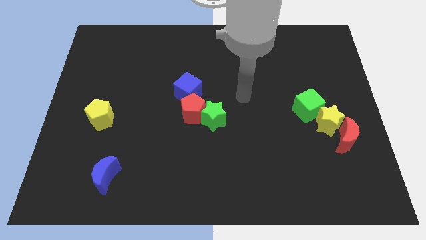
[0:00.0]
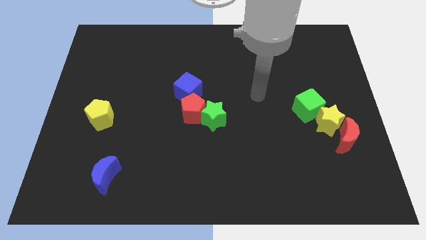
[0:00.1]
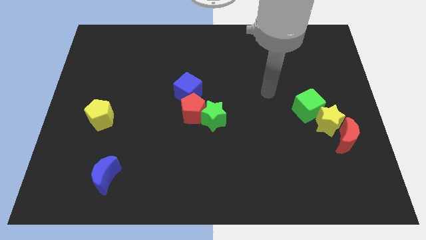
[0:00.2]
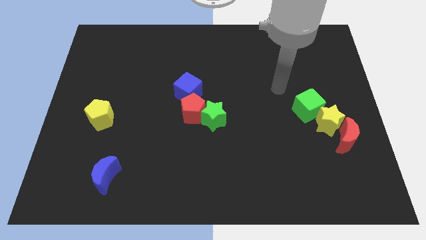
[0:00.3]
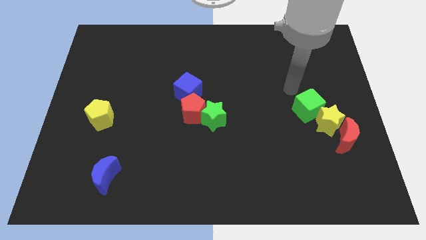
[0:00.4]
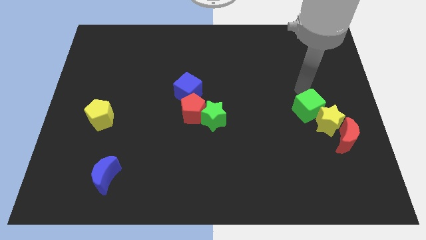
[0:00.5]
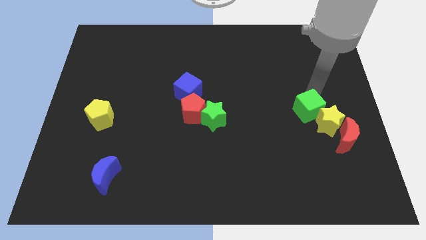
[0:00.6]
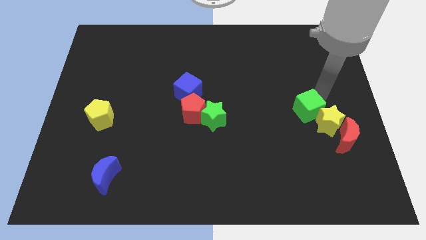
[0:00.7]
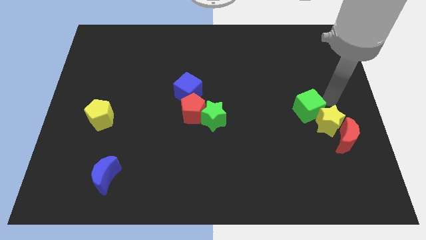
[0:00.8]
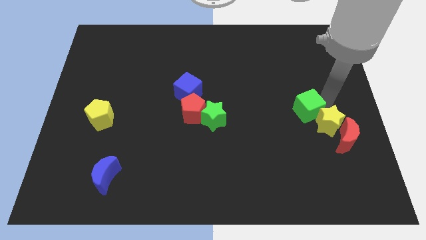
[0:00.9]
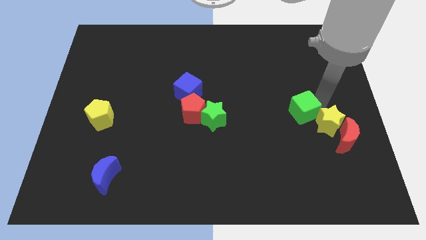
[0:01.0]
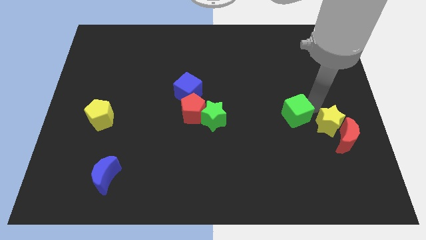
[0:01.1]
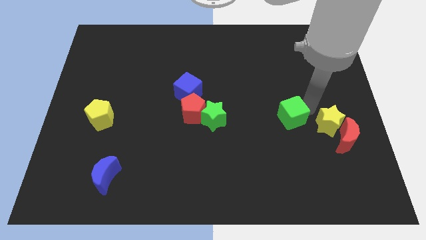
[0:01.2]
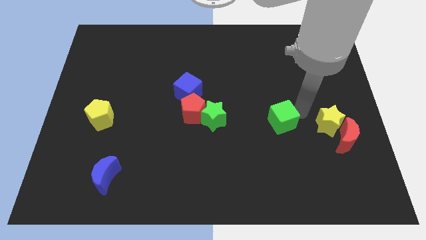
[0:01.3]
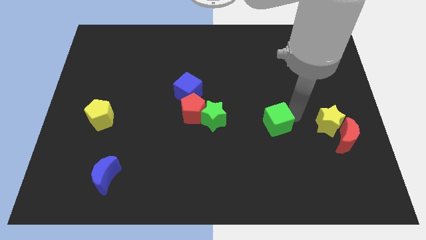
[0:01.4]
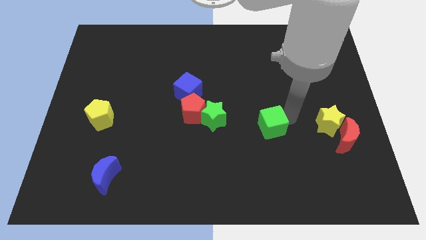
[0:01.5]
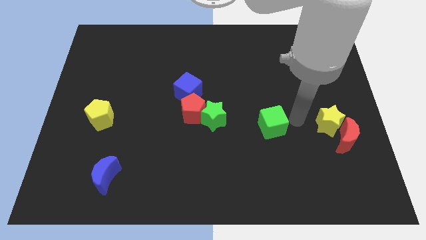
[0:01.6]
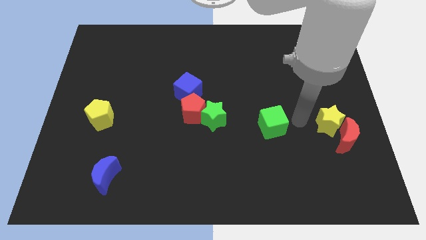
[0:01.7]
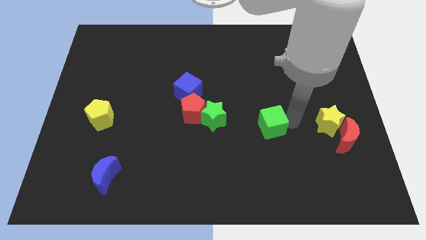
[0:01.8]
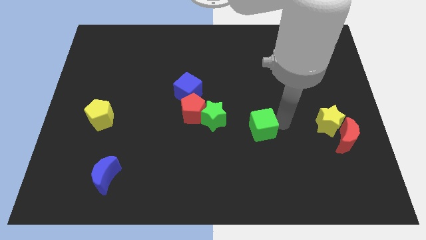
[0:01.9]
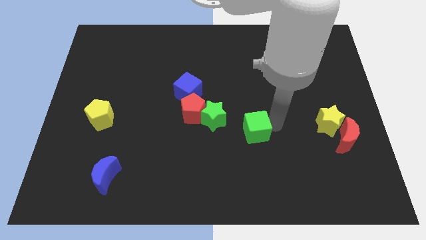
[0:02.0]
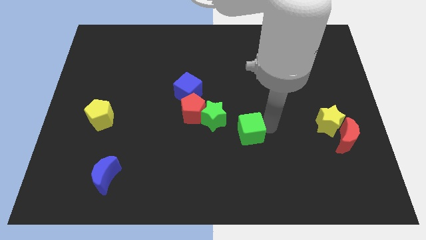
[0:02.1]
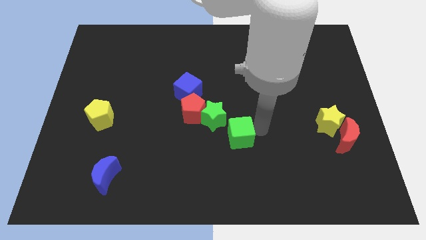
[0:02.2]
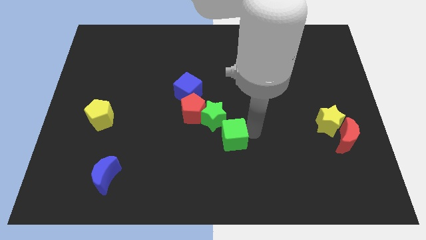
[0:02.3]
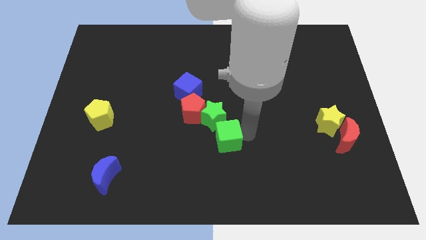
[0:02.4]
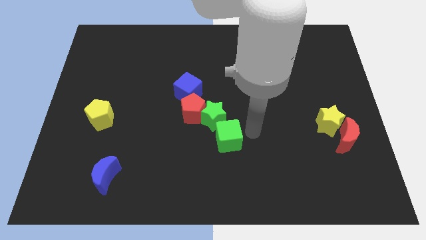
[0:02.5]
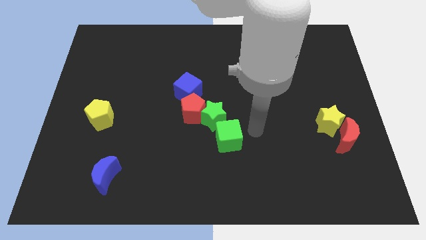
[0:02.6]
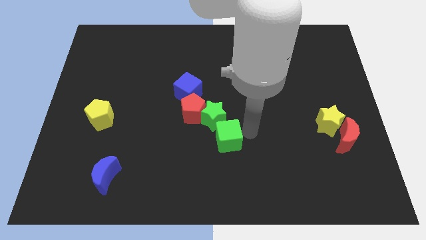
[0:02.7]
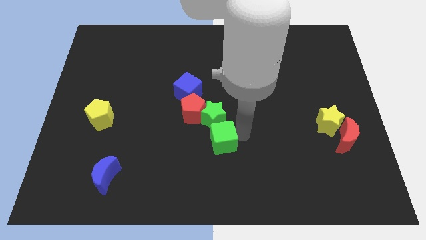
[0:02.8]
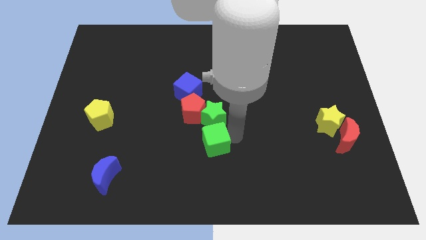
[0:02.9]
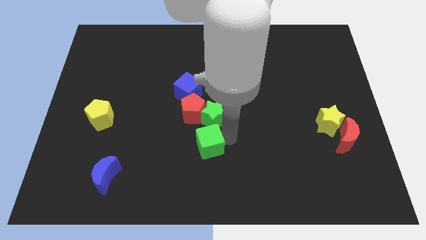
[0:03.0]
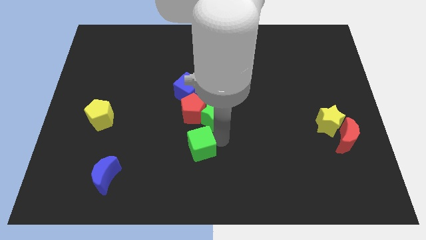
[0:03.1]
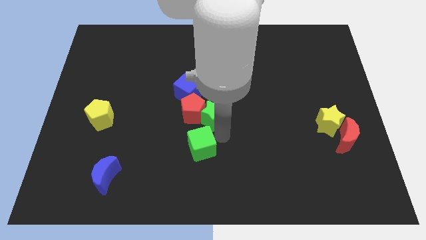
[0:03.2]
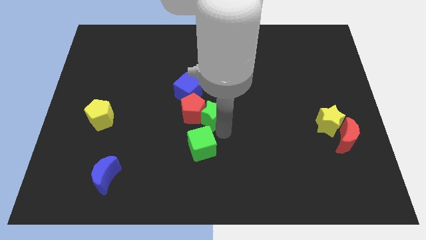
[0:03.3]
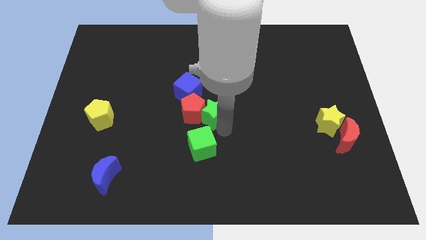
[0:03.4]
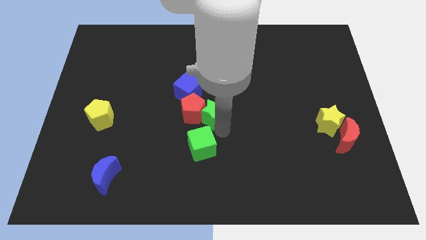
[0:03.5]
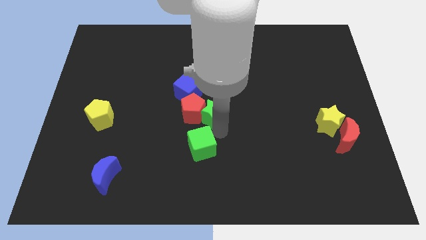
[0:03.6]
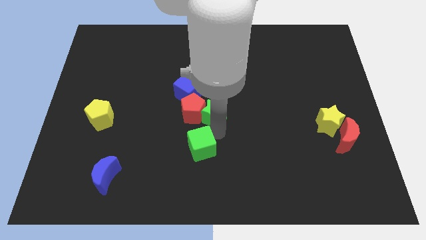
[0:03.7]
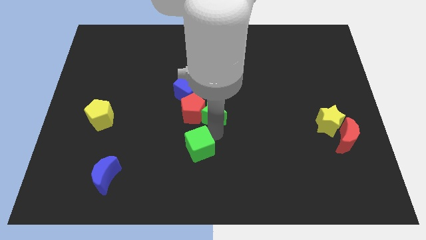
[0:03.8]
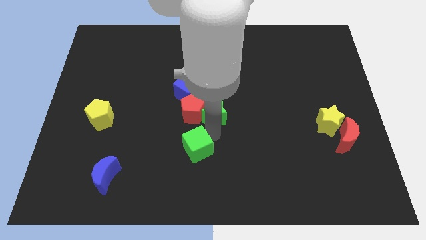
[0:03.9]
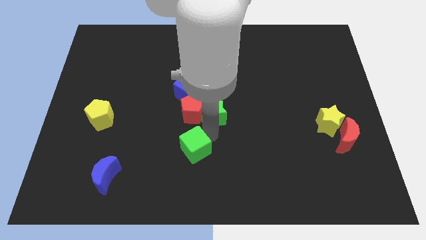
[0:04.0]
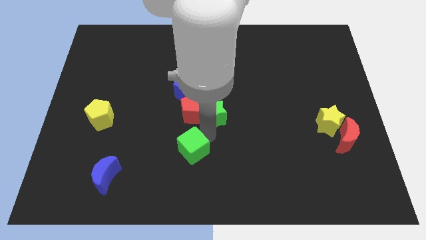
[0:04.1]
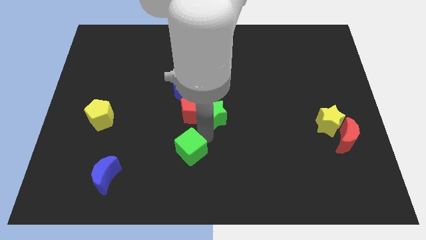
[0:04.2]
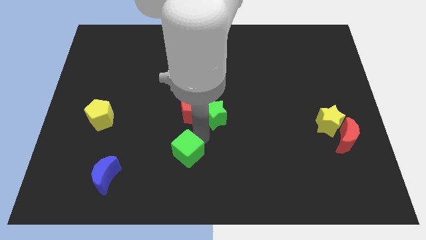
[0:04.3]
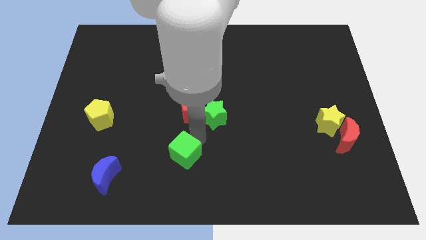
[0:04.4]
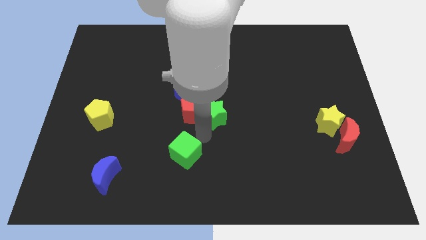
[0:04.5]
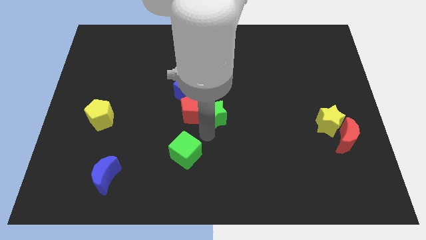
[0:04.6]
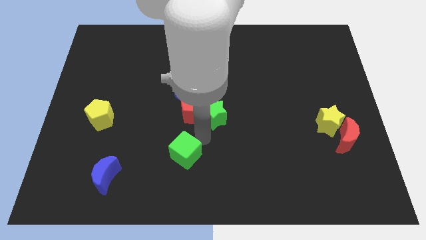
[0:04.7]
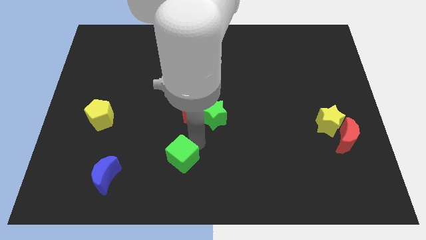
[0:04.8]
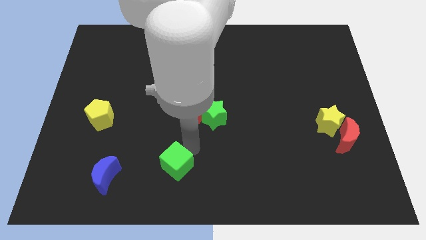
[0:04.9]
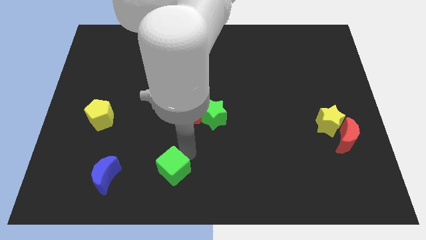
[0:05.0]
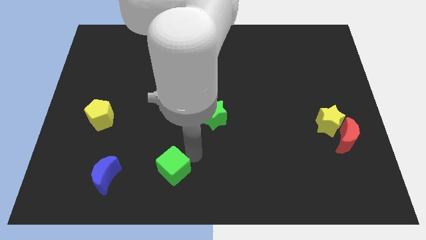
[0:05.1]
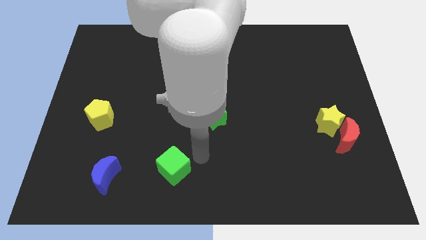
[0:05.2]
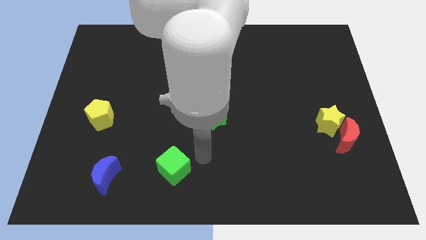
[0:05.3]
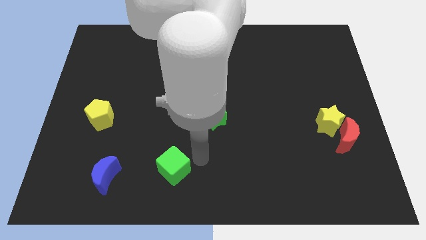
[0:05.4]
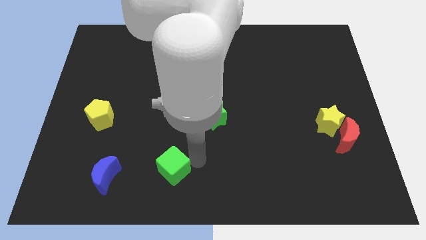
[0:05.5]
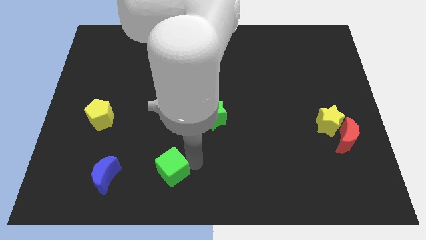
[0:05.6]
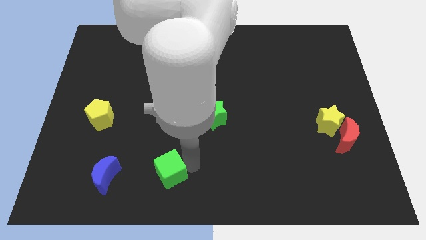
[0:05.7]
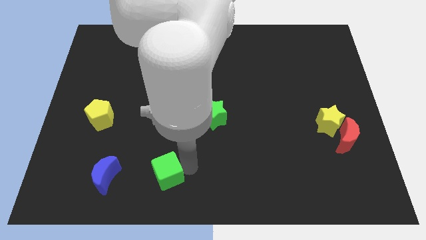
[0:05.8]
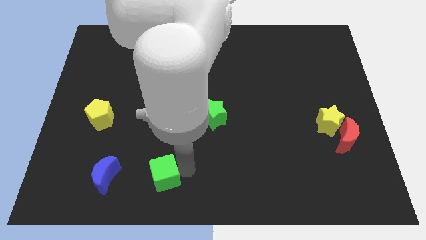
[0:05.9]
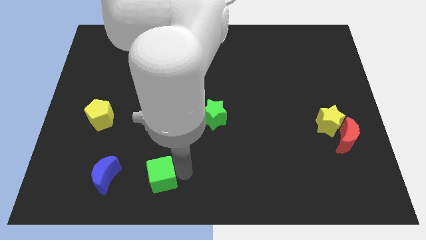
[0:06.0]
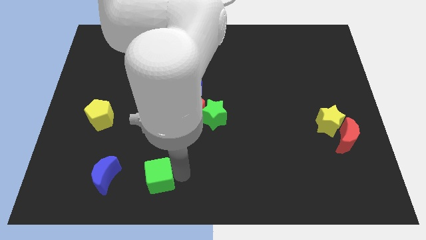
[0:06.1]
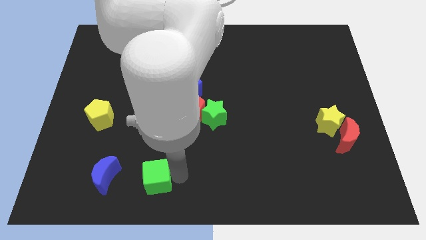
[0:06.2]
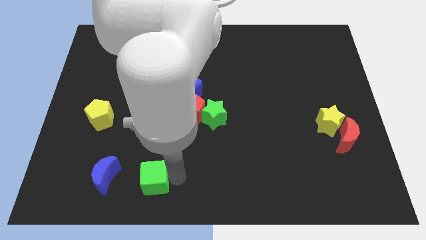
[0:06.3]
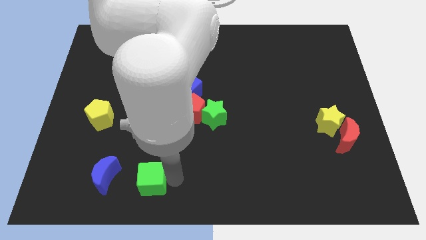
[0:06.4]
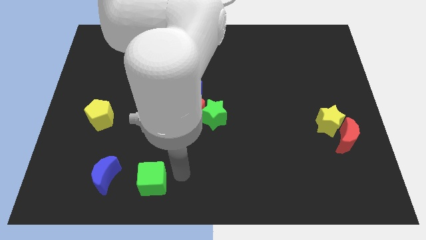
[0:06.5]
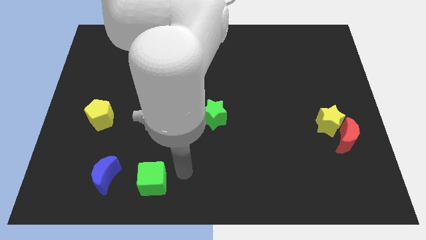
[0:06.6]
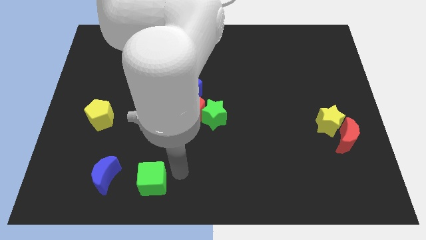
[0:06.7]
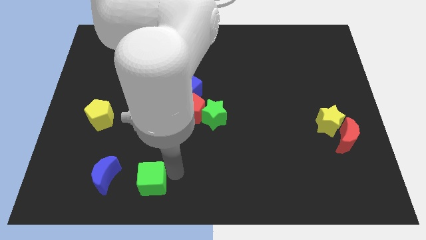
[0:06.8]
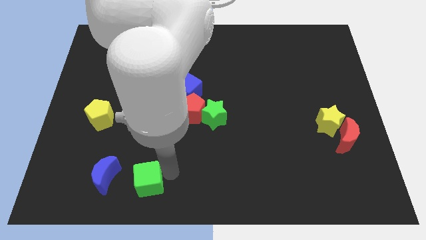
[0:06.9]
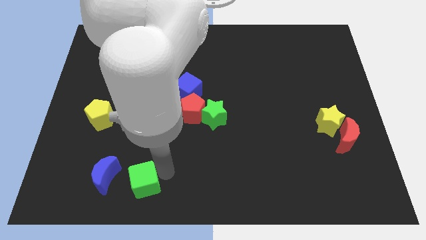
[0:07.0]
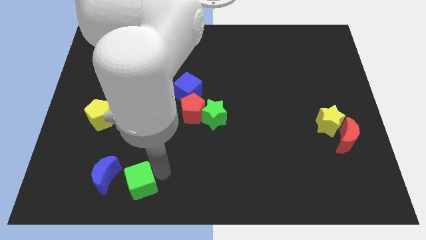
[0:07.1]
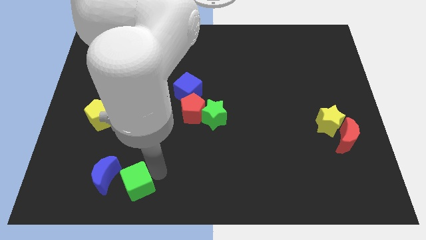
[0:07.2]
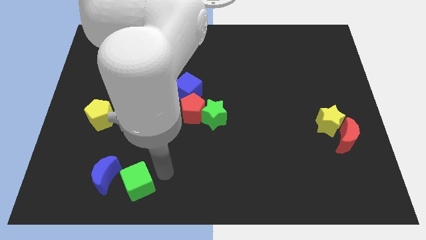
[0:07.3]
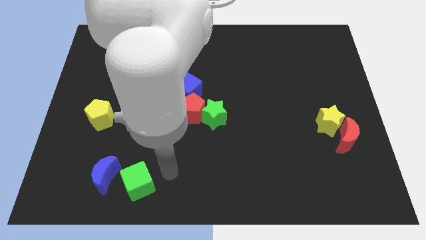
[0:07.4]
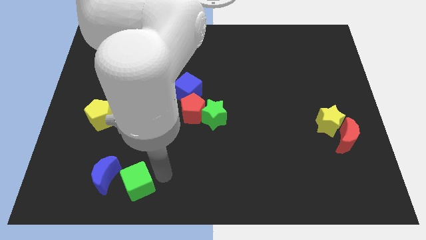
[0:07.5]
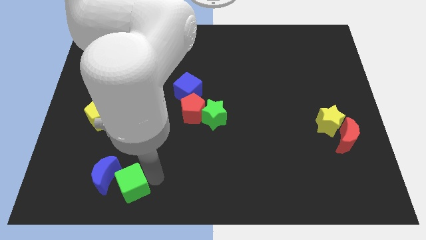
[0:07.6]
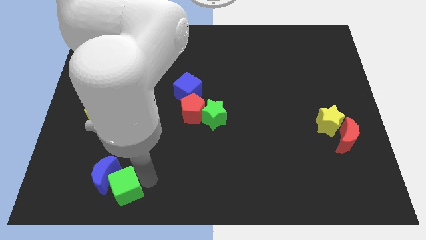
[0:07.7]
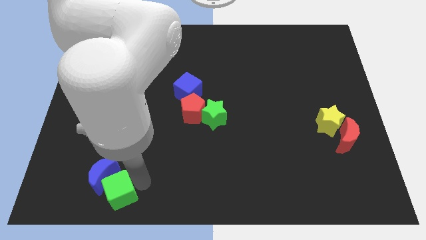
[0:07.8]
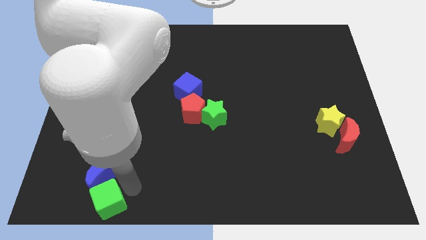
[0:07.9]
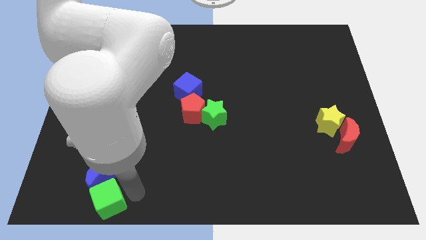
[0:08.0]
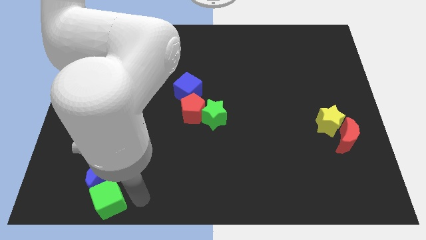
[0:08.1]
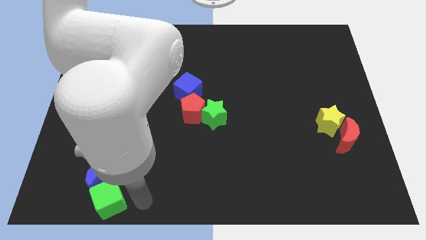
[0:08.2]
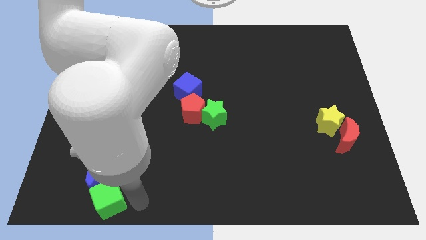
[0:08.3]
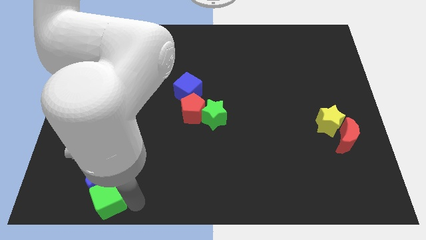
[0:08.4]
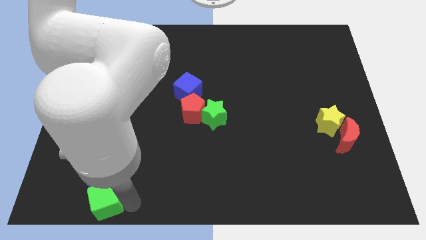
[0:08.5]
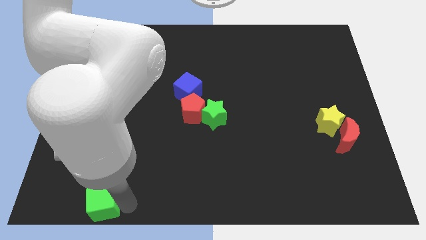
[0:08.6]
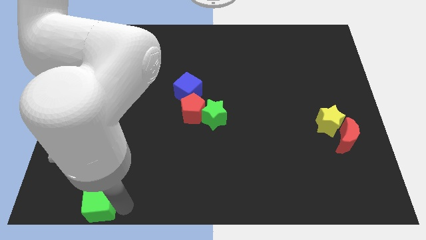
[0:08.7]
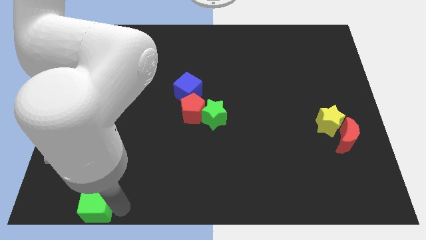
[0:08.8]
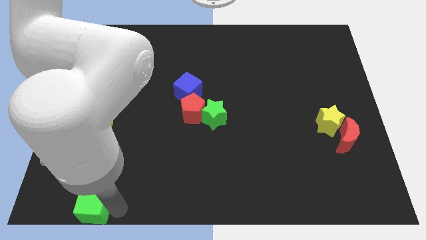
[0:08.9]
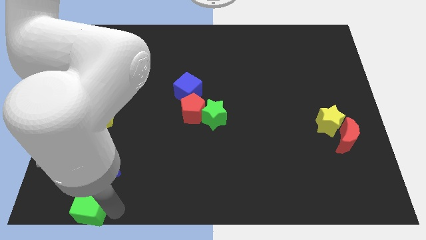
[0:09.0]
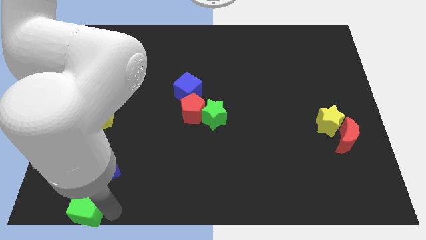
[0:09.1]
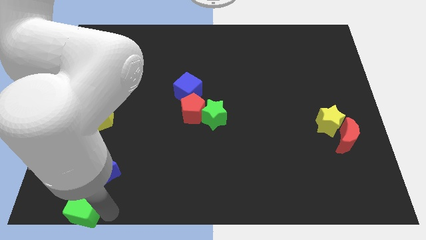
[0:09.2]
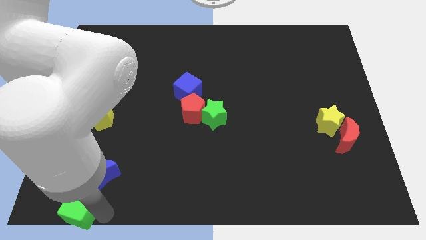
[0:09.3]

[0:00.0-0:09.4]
slide the green cube to the bottom left
